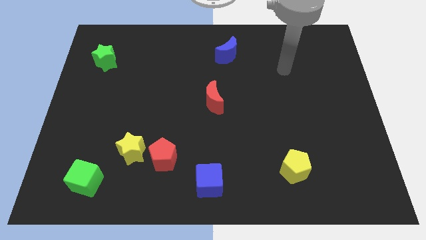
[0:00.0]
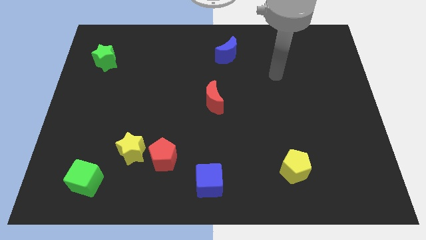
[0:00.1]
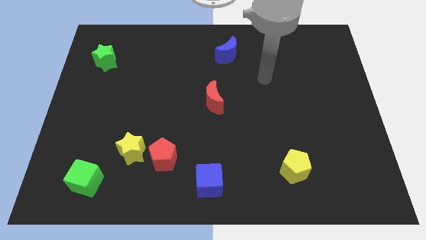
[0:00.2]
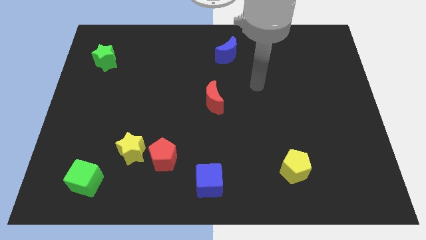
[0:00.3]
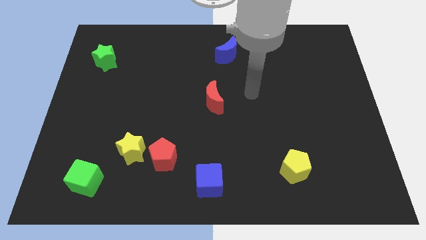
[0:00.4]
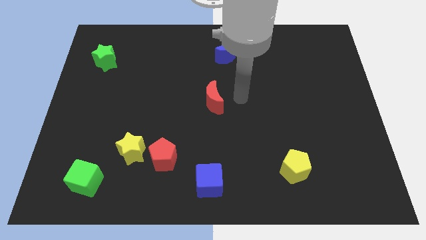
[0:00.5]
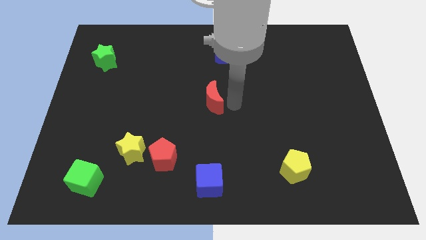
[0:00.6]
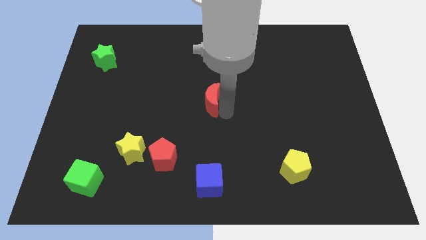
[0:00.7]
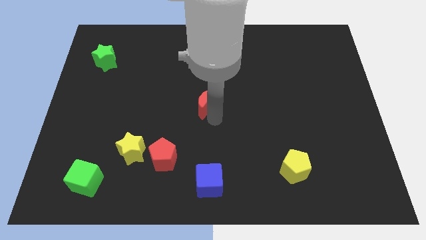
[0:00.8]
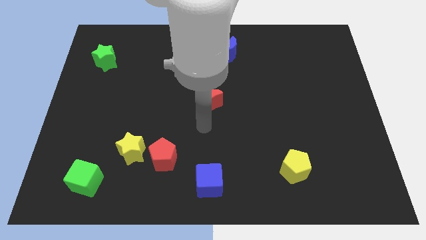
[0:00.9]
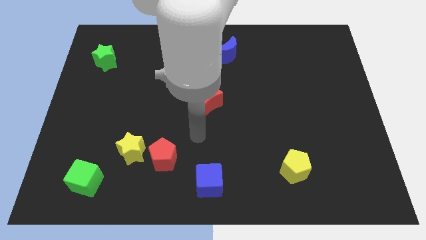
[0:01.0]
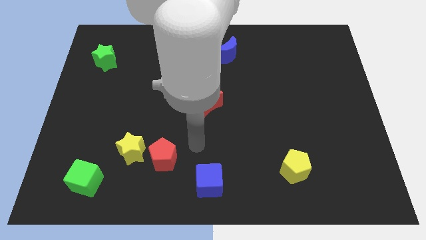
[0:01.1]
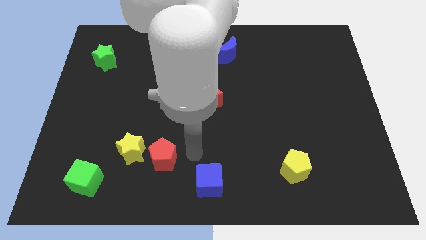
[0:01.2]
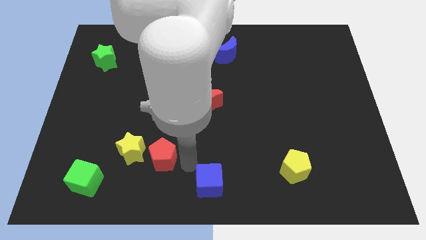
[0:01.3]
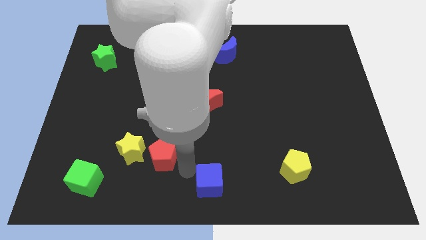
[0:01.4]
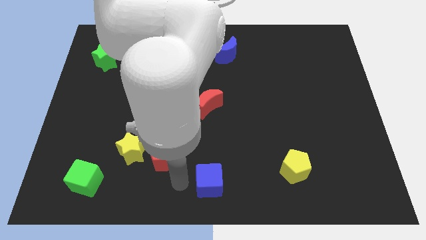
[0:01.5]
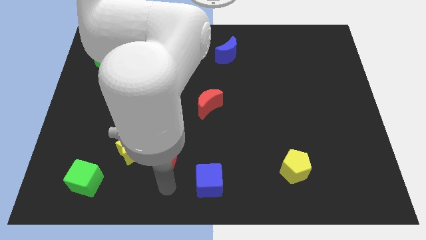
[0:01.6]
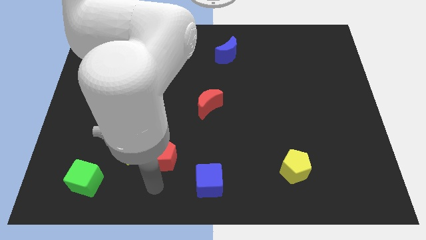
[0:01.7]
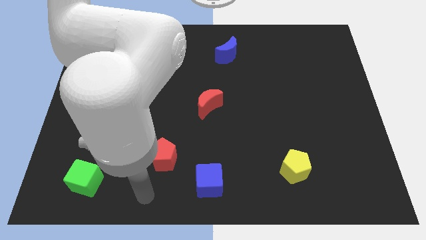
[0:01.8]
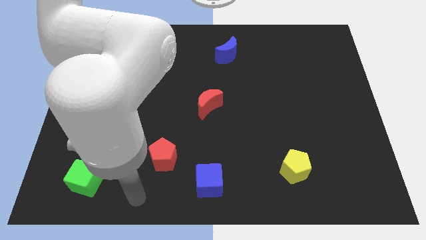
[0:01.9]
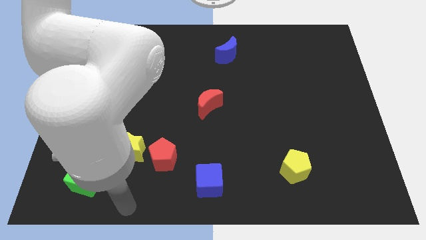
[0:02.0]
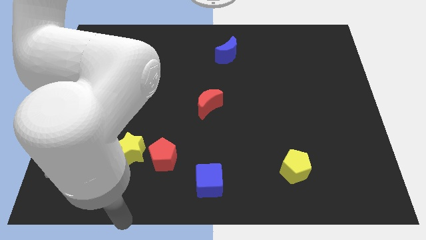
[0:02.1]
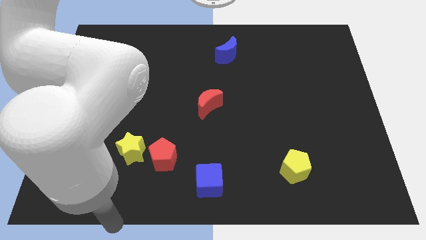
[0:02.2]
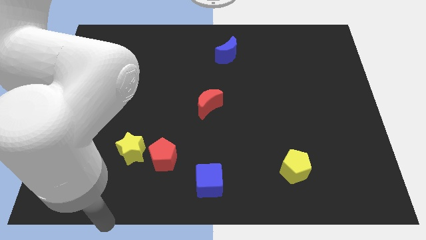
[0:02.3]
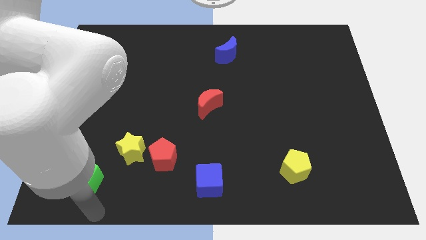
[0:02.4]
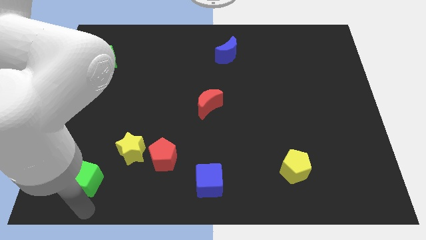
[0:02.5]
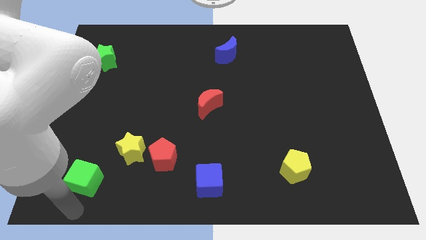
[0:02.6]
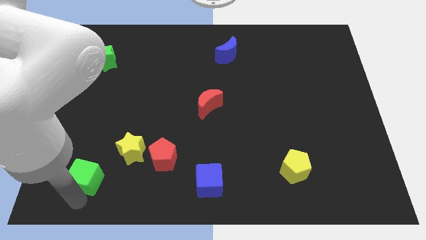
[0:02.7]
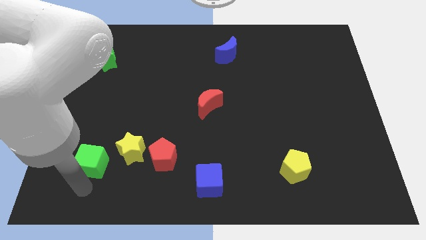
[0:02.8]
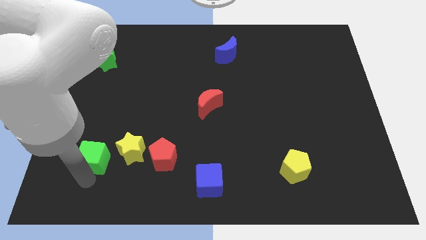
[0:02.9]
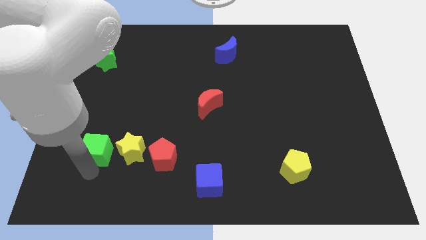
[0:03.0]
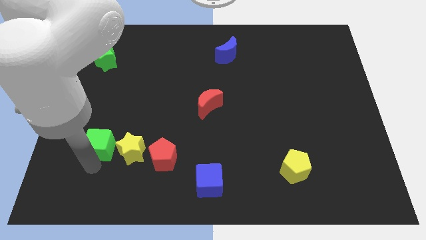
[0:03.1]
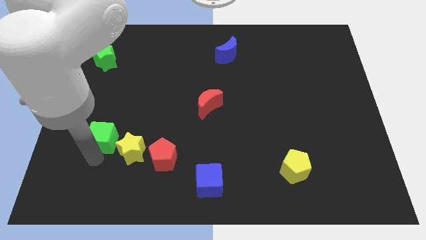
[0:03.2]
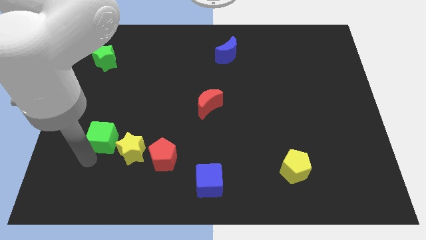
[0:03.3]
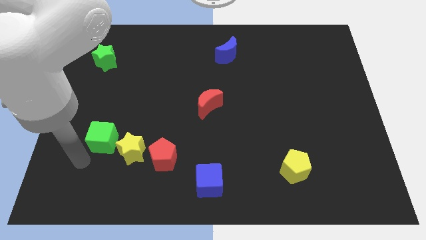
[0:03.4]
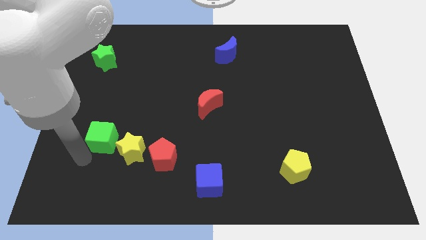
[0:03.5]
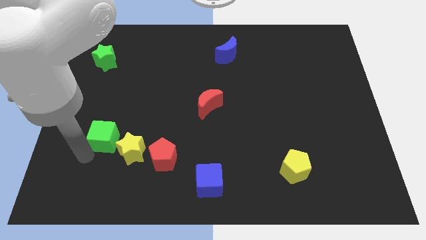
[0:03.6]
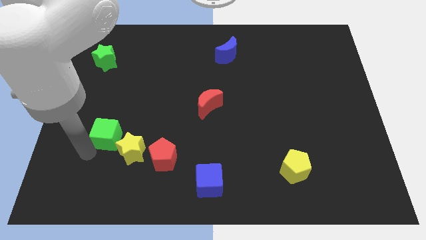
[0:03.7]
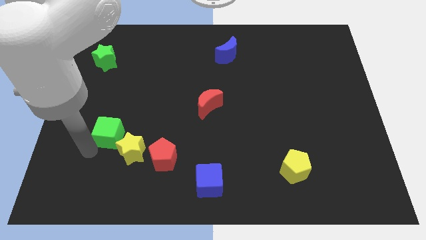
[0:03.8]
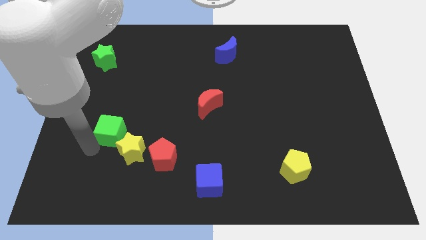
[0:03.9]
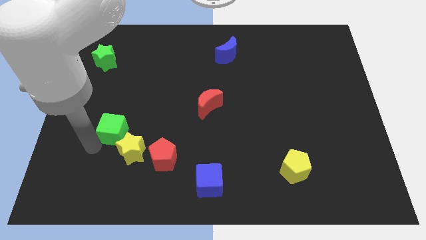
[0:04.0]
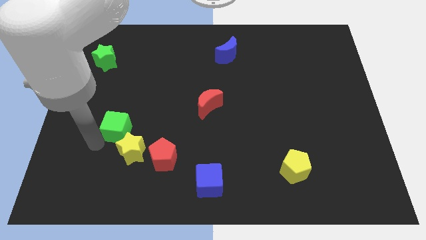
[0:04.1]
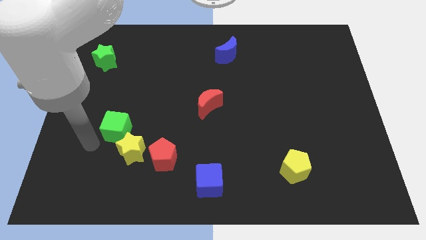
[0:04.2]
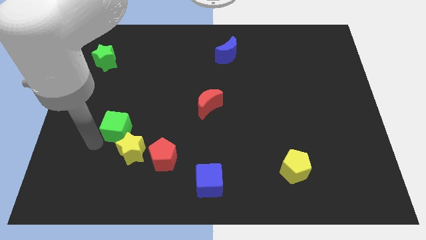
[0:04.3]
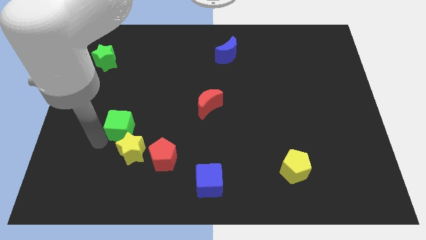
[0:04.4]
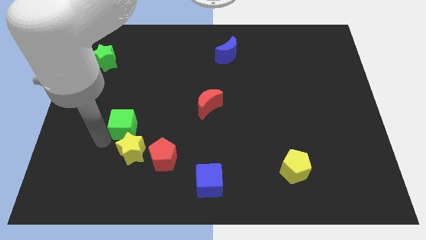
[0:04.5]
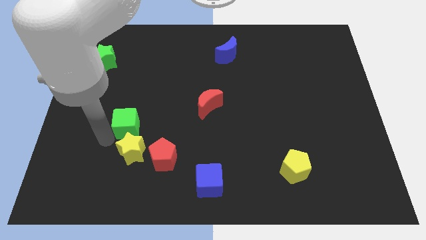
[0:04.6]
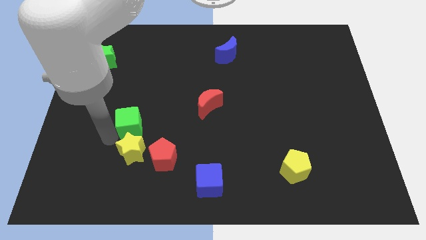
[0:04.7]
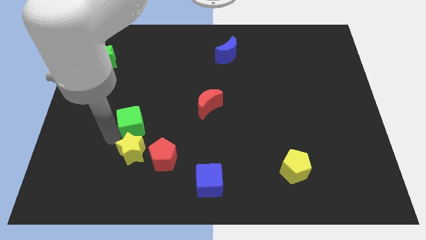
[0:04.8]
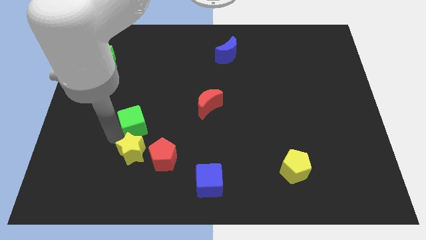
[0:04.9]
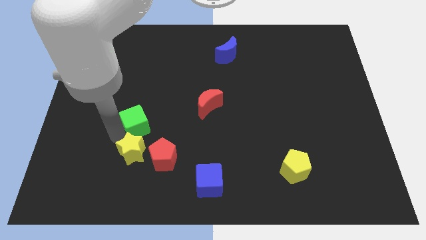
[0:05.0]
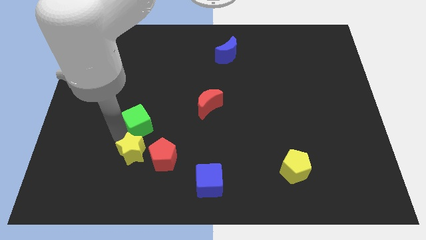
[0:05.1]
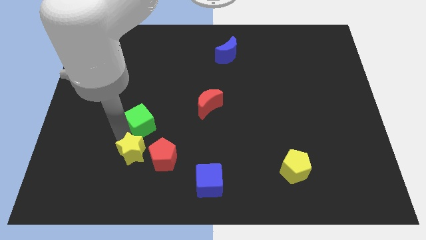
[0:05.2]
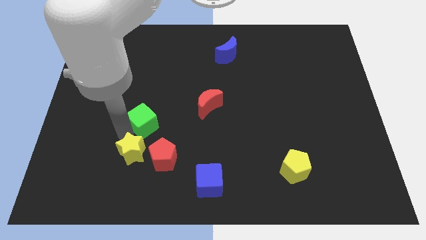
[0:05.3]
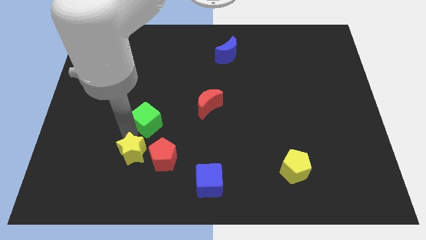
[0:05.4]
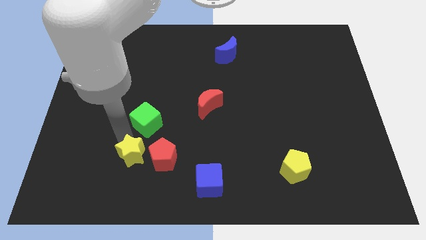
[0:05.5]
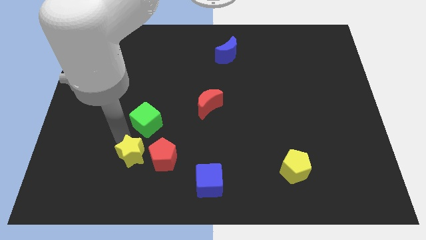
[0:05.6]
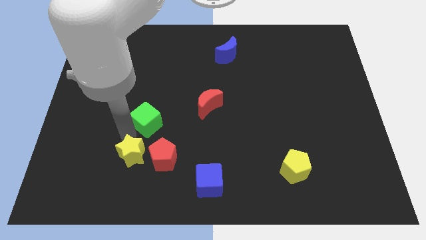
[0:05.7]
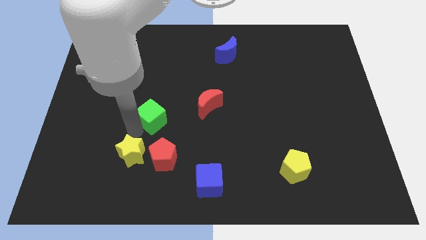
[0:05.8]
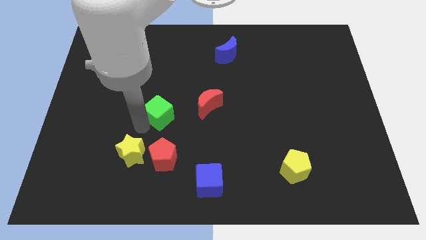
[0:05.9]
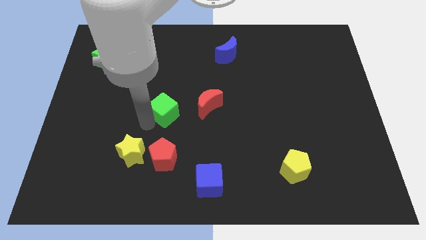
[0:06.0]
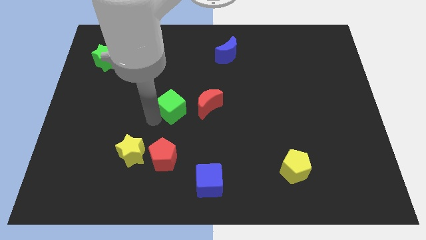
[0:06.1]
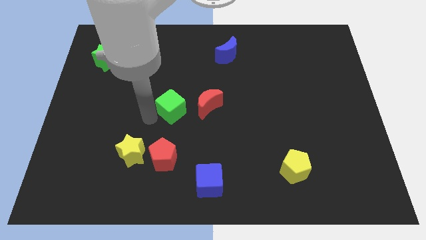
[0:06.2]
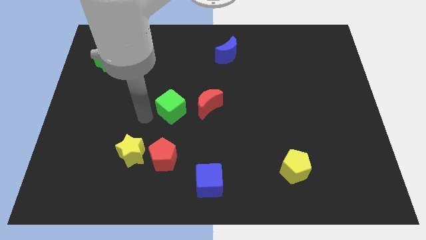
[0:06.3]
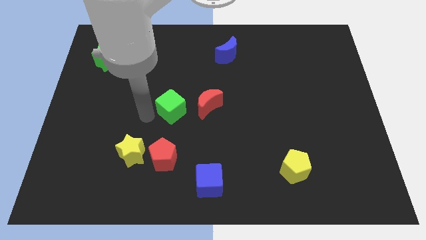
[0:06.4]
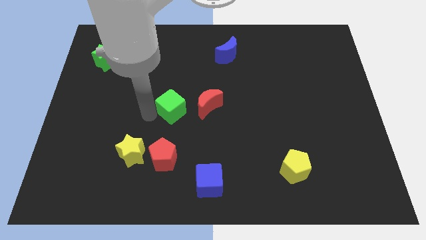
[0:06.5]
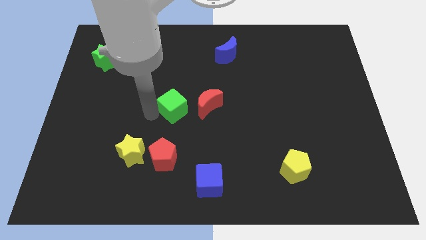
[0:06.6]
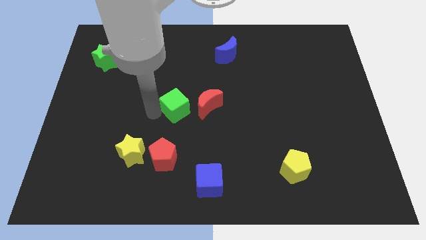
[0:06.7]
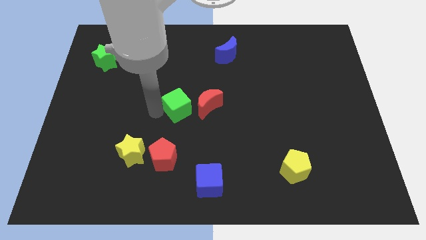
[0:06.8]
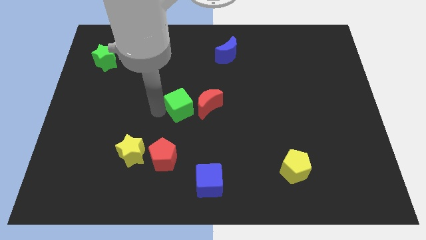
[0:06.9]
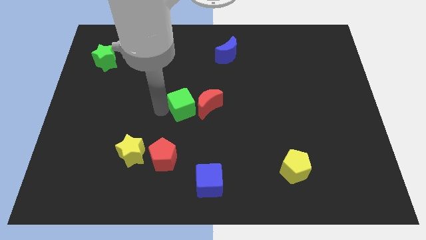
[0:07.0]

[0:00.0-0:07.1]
put the green cube next to the red moon
